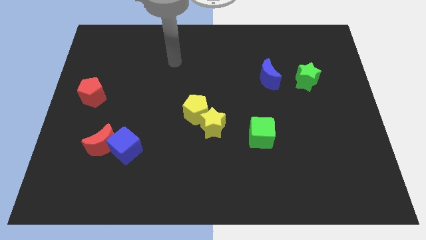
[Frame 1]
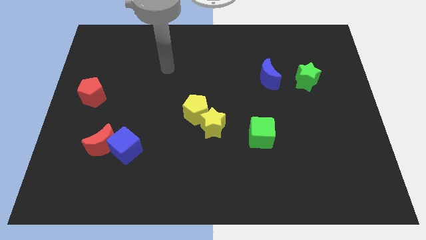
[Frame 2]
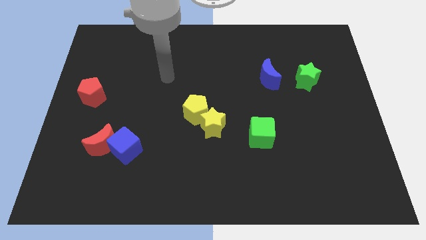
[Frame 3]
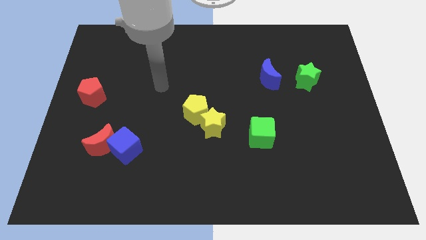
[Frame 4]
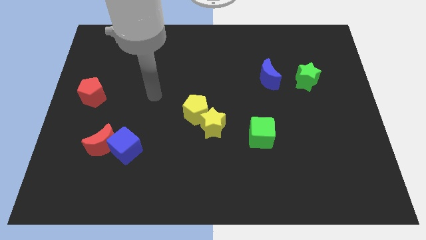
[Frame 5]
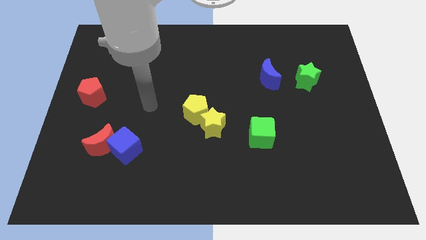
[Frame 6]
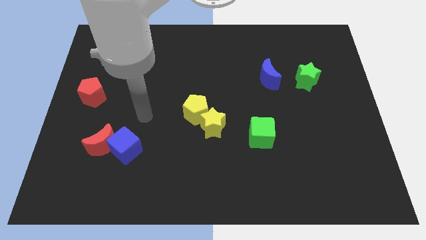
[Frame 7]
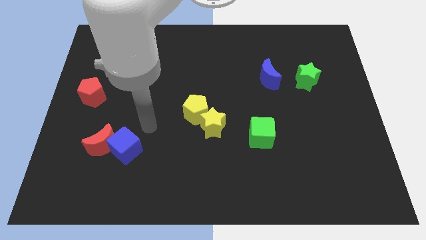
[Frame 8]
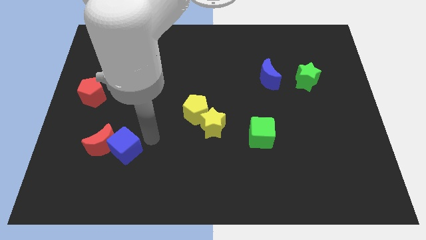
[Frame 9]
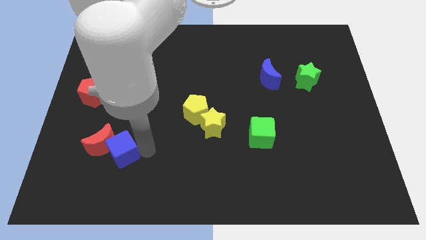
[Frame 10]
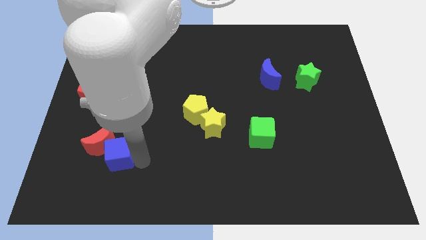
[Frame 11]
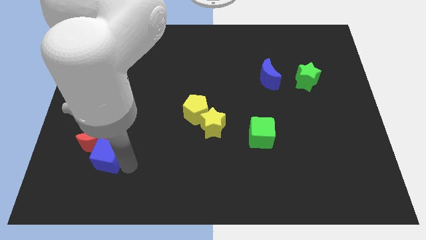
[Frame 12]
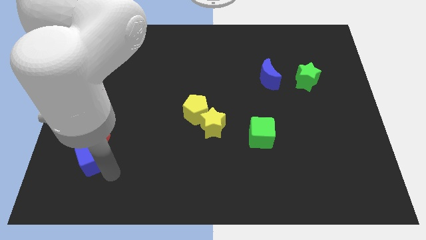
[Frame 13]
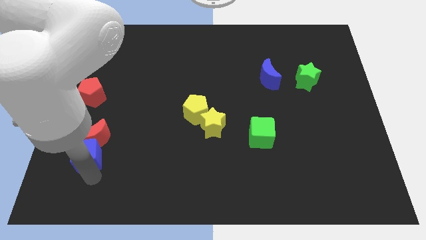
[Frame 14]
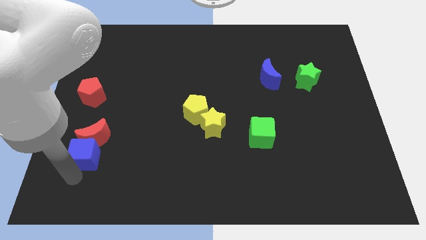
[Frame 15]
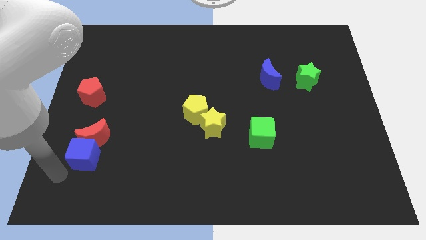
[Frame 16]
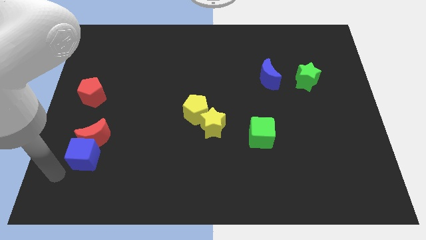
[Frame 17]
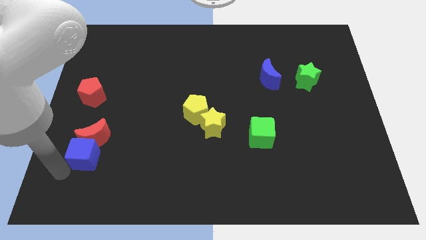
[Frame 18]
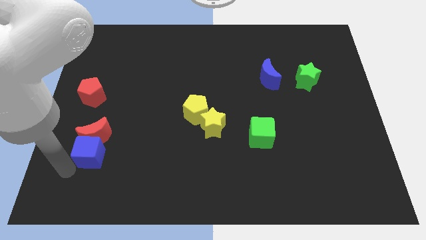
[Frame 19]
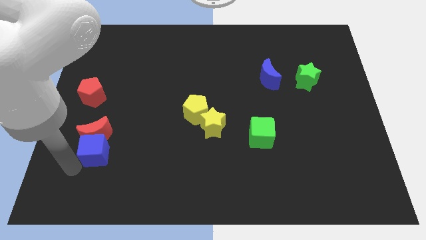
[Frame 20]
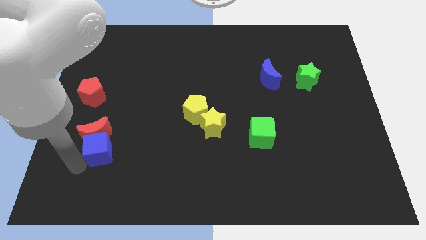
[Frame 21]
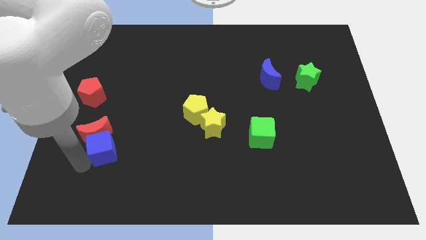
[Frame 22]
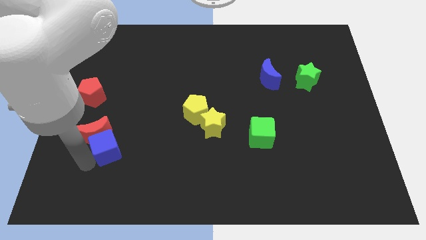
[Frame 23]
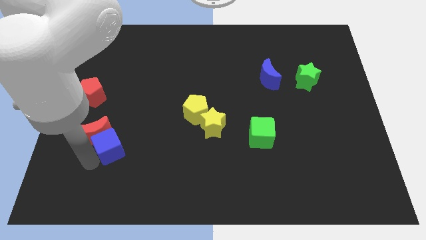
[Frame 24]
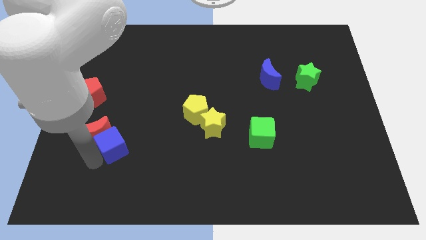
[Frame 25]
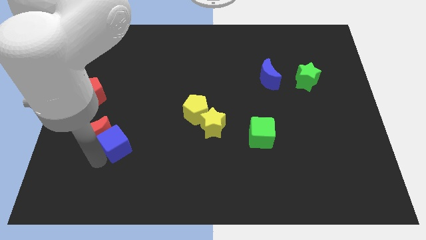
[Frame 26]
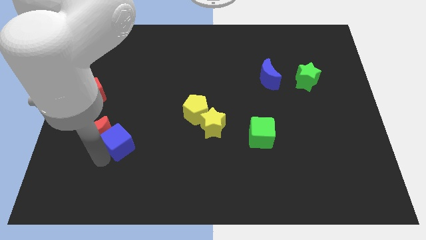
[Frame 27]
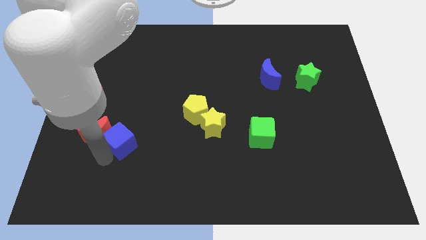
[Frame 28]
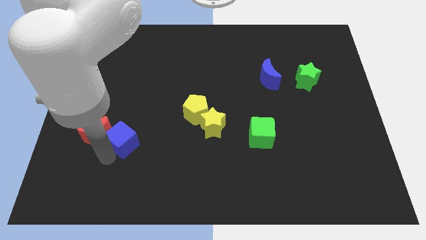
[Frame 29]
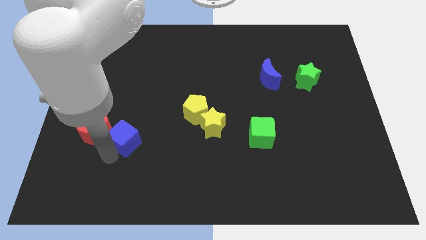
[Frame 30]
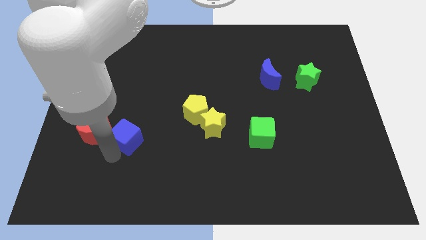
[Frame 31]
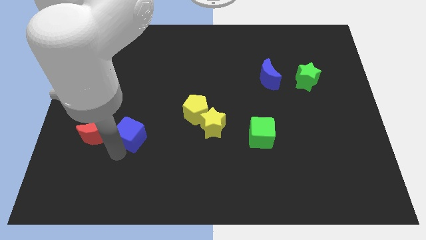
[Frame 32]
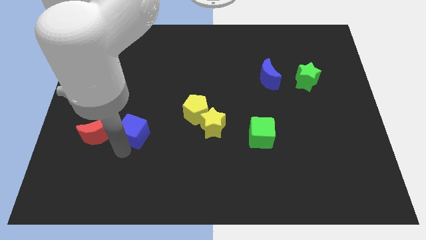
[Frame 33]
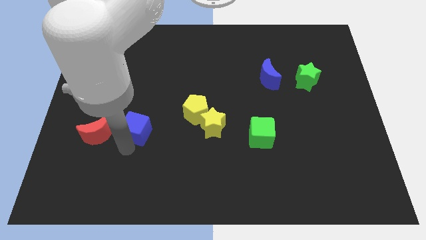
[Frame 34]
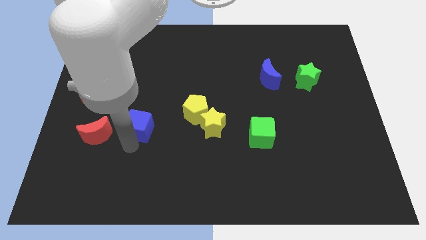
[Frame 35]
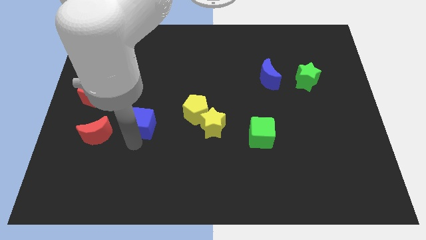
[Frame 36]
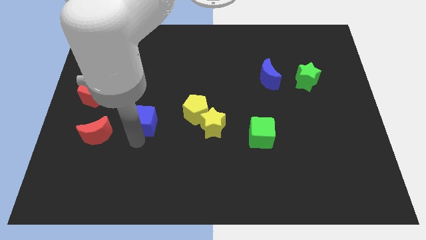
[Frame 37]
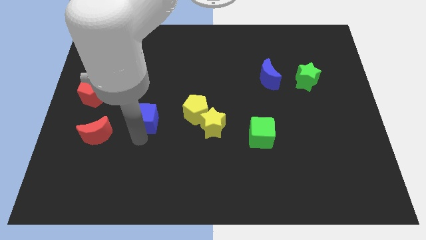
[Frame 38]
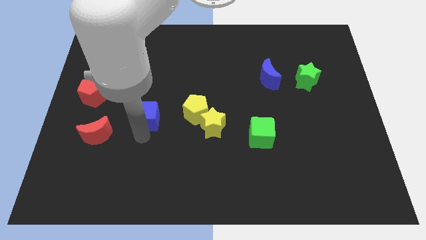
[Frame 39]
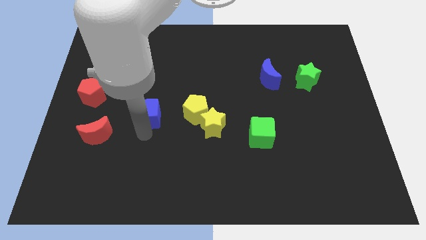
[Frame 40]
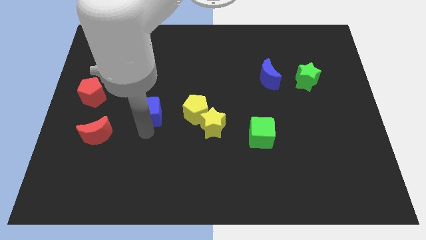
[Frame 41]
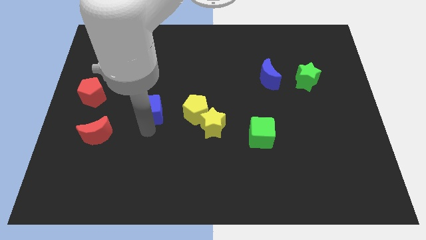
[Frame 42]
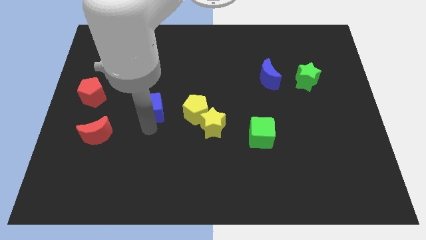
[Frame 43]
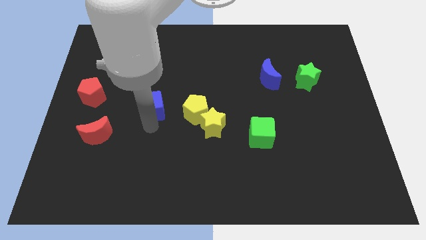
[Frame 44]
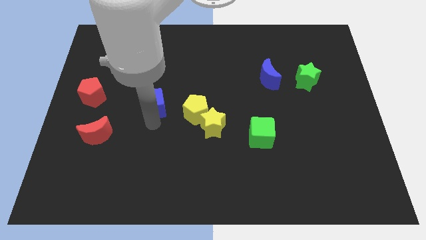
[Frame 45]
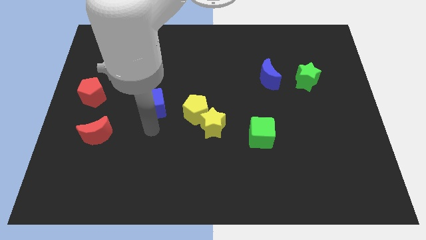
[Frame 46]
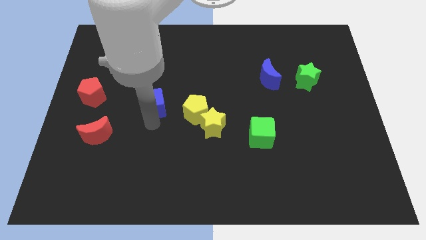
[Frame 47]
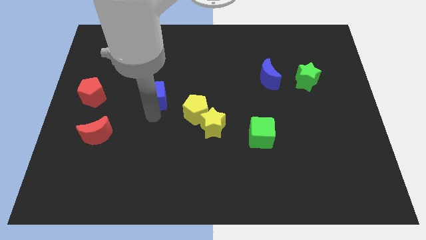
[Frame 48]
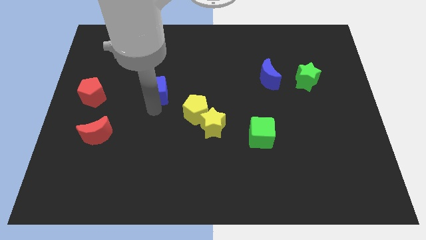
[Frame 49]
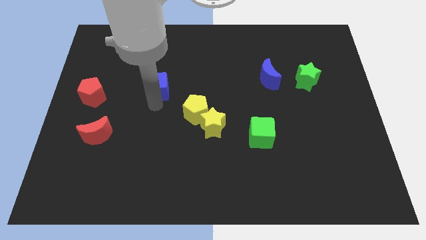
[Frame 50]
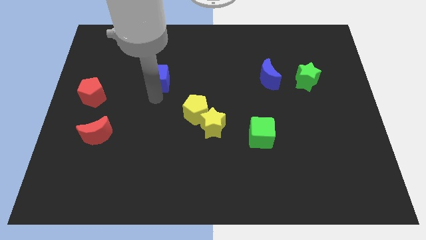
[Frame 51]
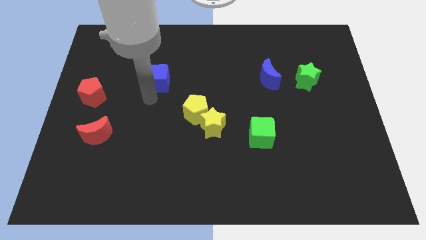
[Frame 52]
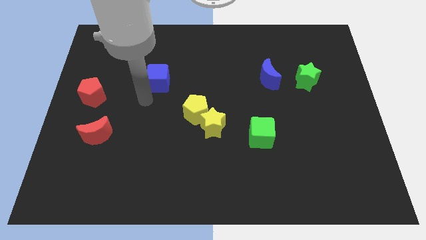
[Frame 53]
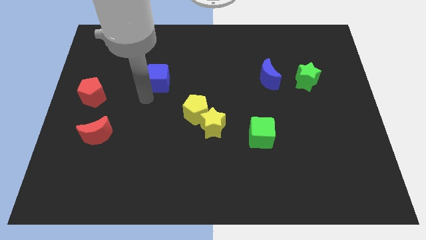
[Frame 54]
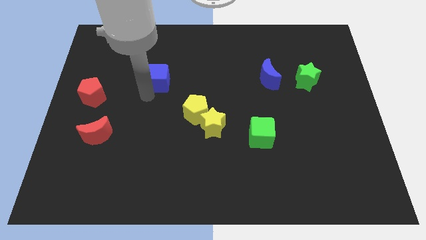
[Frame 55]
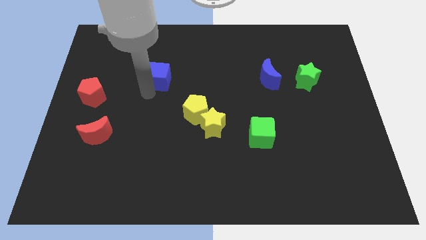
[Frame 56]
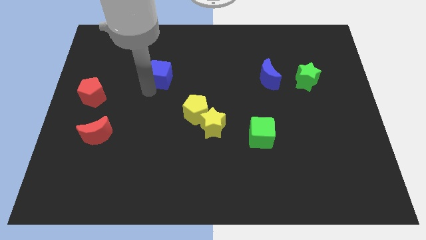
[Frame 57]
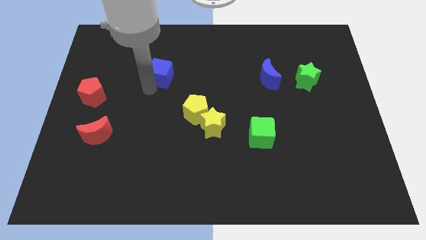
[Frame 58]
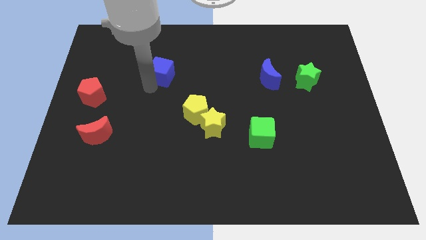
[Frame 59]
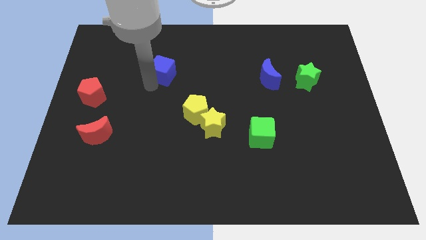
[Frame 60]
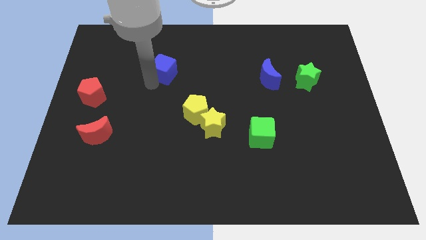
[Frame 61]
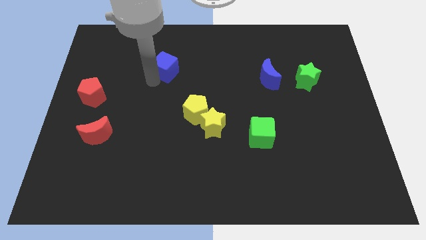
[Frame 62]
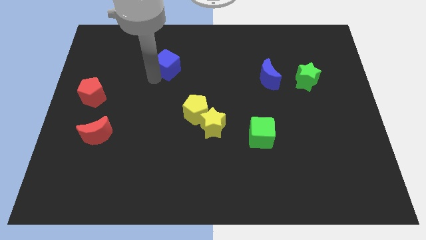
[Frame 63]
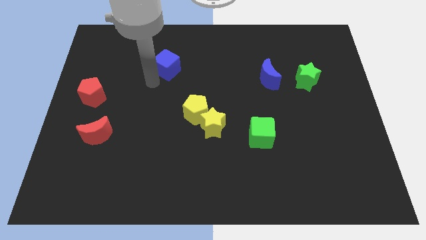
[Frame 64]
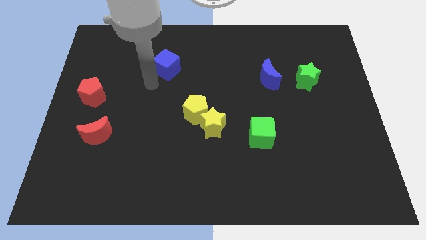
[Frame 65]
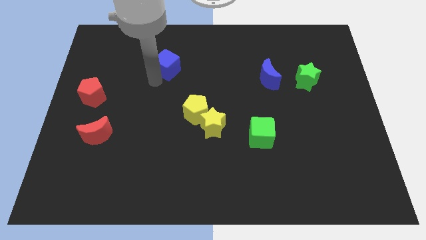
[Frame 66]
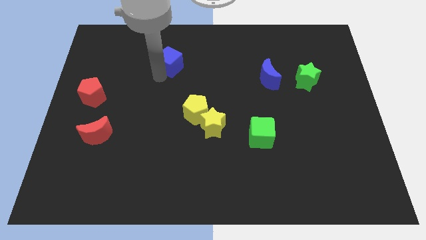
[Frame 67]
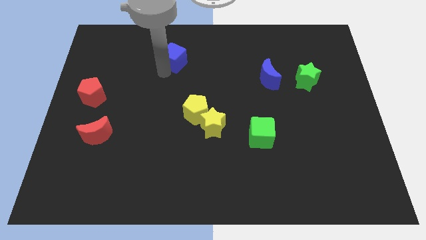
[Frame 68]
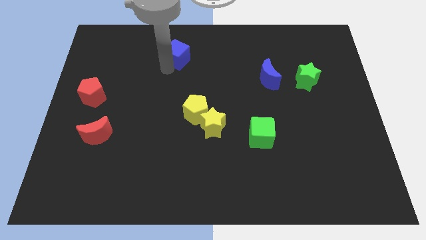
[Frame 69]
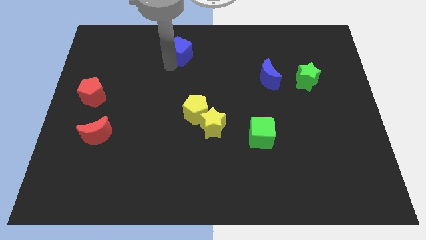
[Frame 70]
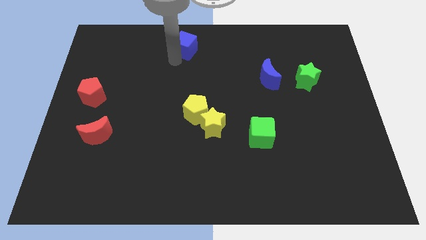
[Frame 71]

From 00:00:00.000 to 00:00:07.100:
push the blue cube to the top

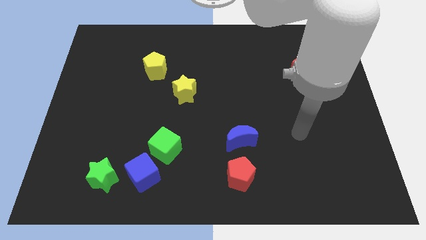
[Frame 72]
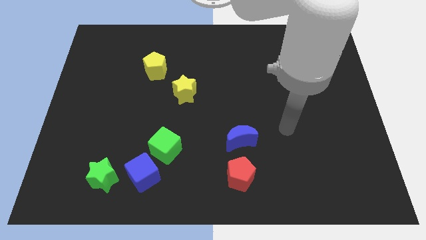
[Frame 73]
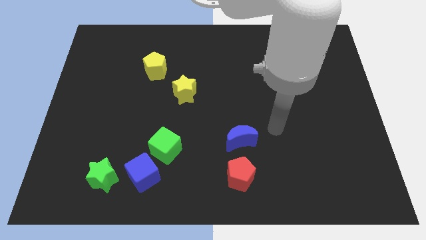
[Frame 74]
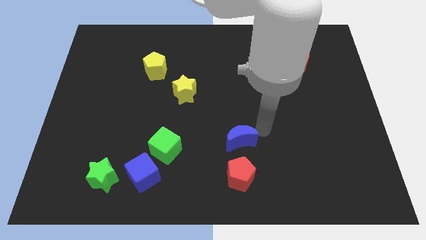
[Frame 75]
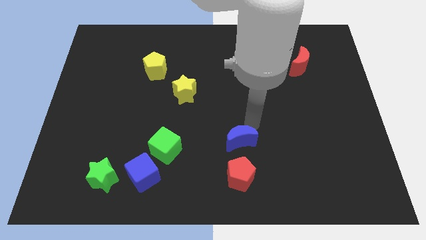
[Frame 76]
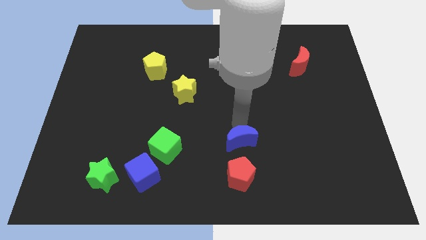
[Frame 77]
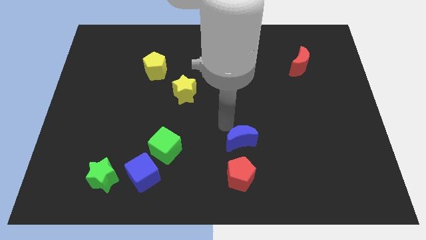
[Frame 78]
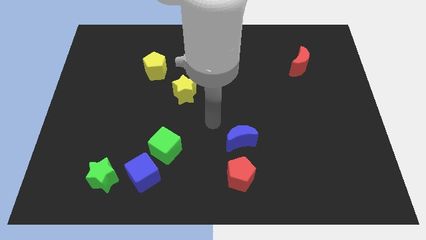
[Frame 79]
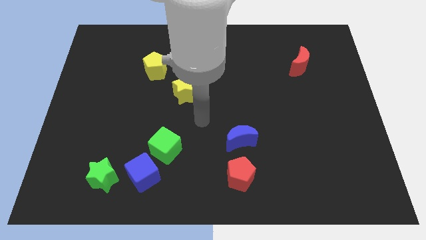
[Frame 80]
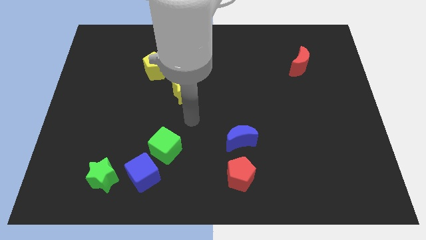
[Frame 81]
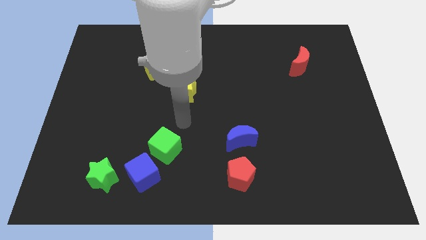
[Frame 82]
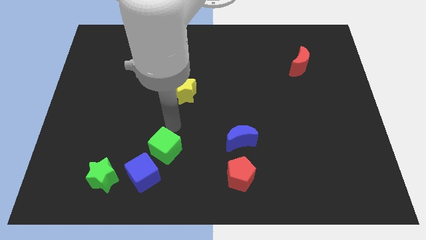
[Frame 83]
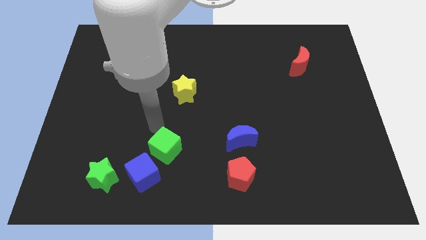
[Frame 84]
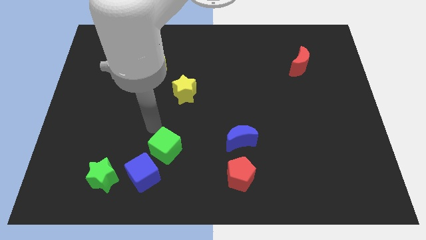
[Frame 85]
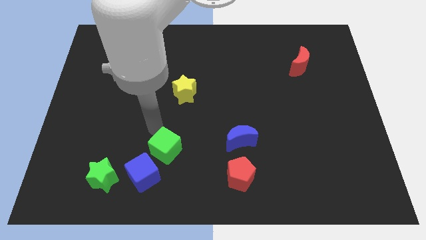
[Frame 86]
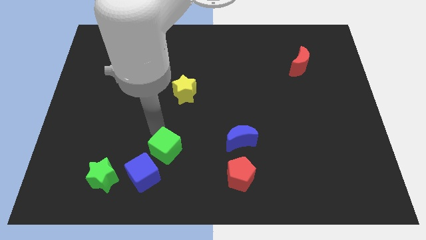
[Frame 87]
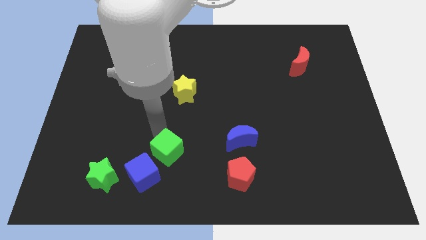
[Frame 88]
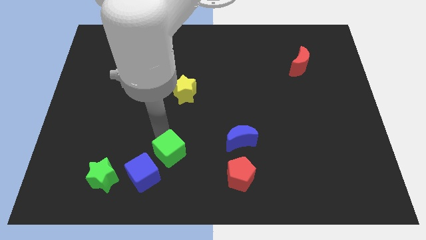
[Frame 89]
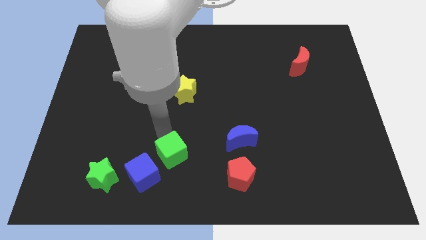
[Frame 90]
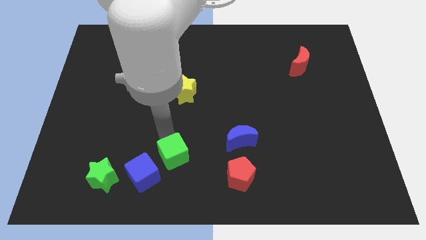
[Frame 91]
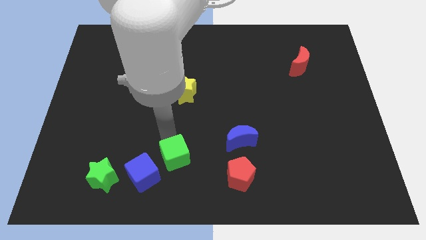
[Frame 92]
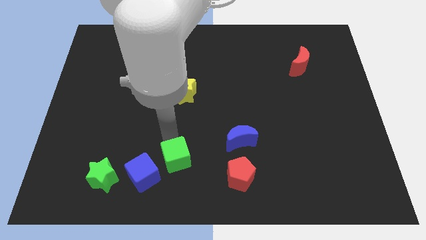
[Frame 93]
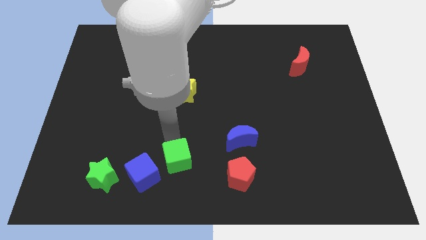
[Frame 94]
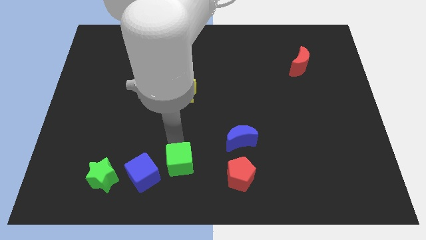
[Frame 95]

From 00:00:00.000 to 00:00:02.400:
put the green cube to the bottom side
